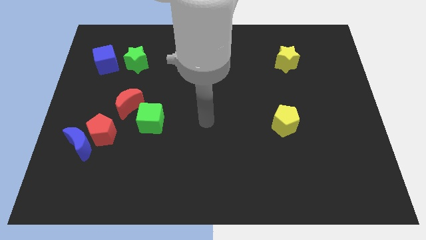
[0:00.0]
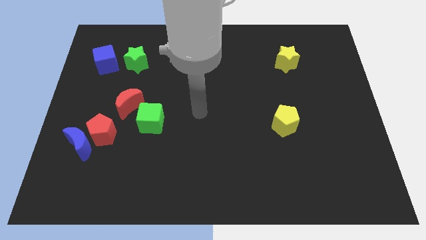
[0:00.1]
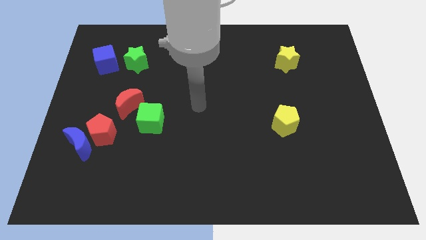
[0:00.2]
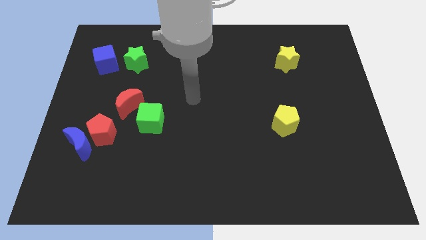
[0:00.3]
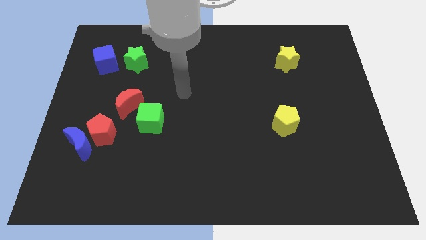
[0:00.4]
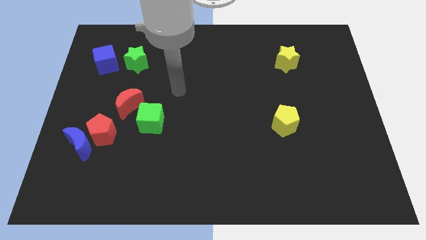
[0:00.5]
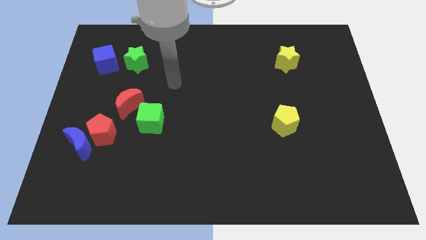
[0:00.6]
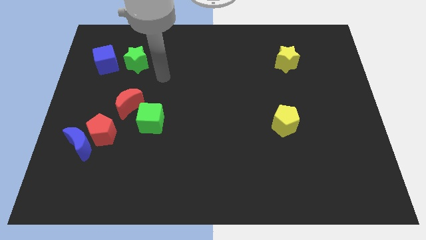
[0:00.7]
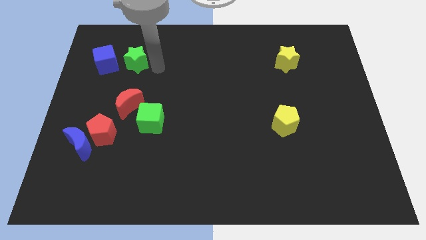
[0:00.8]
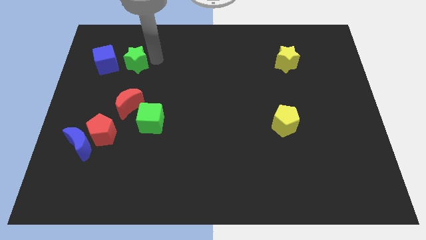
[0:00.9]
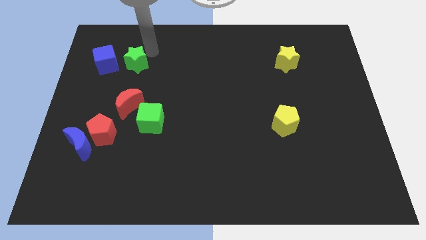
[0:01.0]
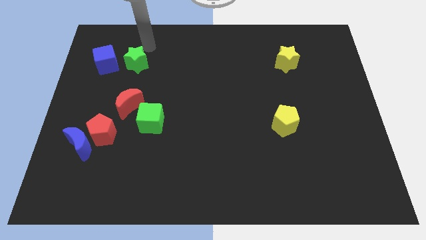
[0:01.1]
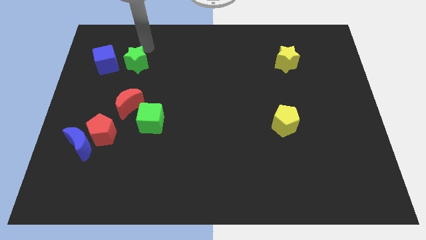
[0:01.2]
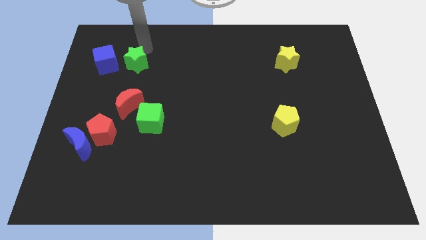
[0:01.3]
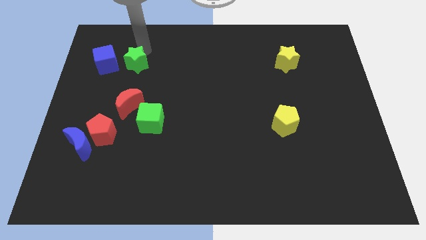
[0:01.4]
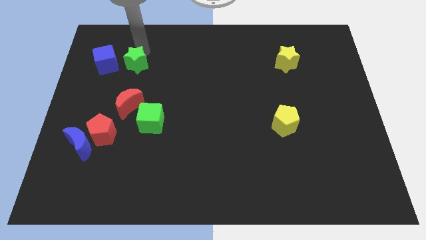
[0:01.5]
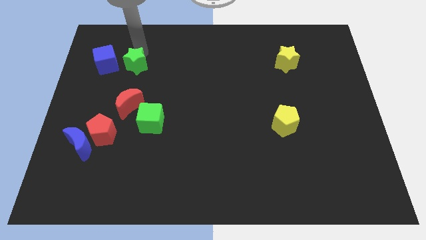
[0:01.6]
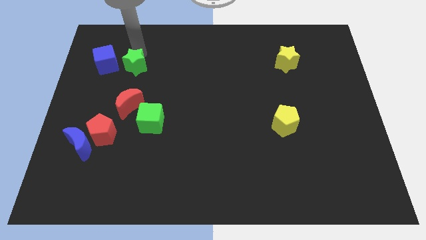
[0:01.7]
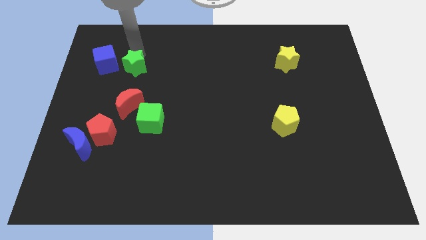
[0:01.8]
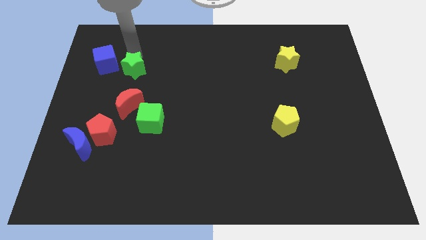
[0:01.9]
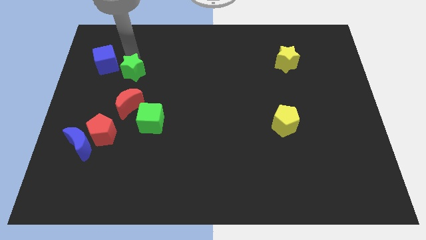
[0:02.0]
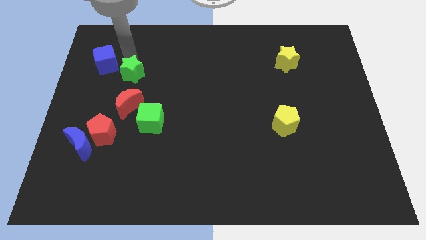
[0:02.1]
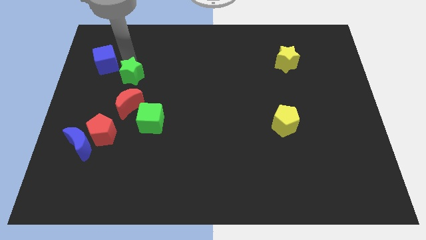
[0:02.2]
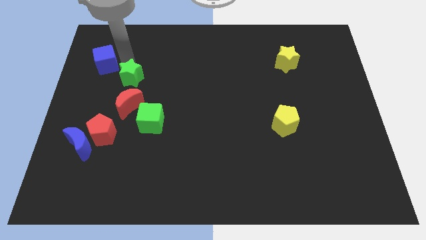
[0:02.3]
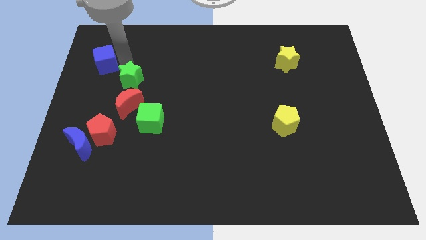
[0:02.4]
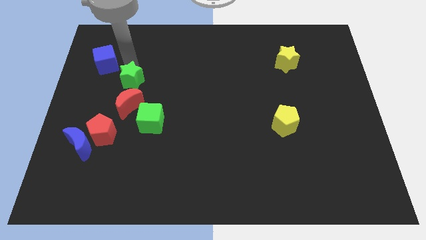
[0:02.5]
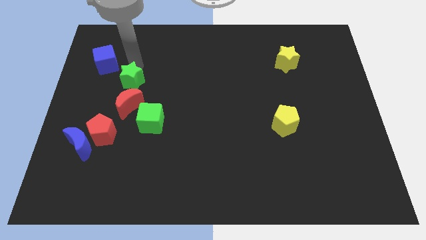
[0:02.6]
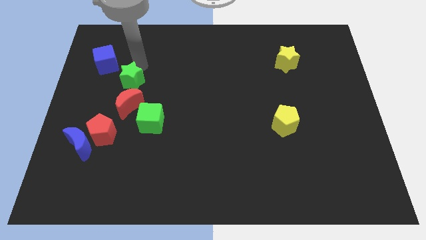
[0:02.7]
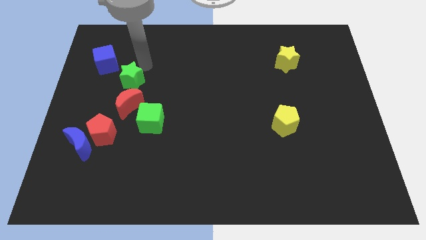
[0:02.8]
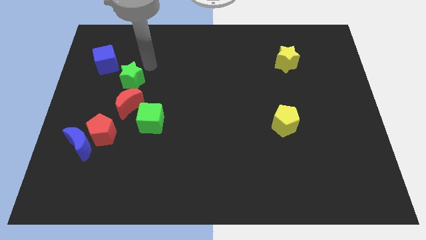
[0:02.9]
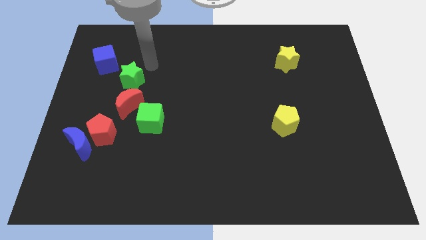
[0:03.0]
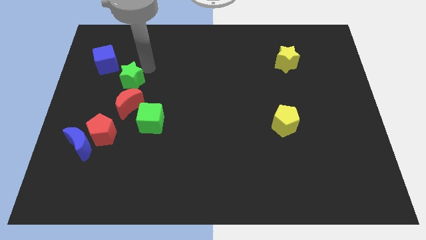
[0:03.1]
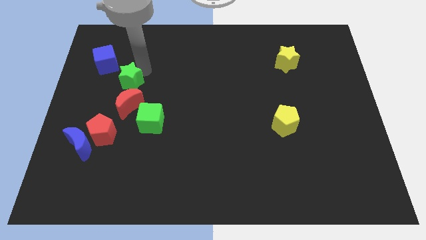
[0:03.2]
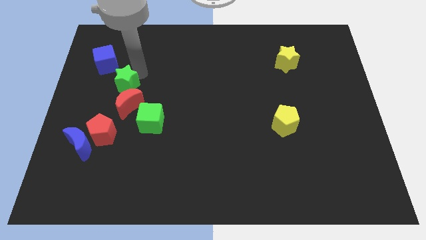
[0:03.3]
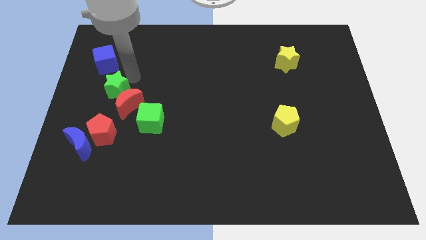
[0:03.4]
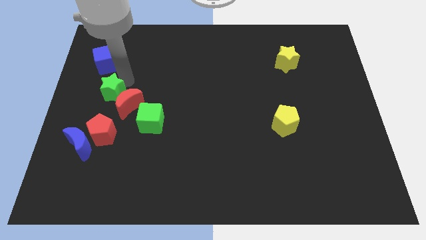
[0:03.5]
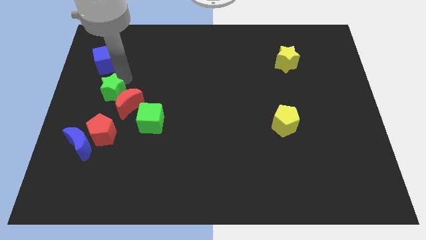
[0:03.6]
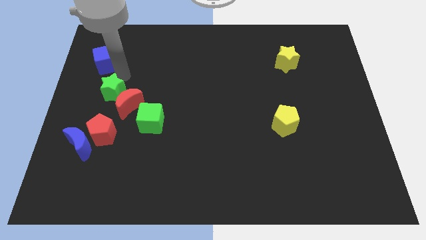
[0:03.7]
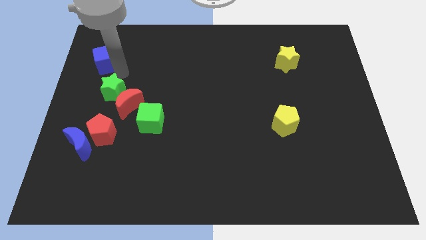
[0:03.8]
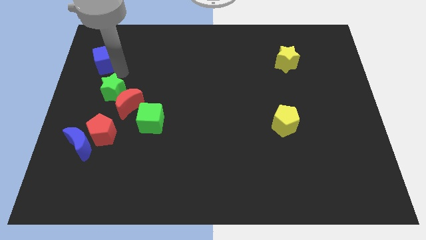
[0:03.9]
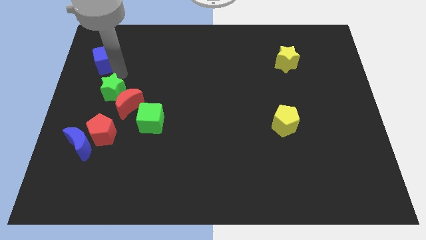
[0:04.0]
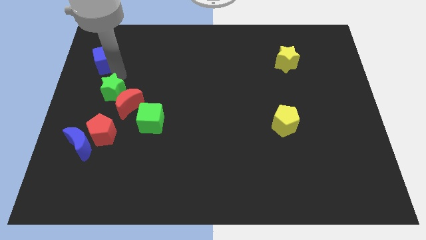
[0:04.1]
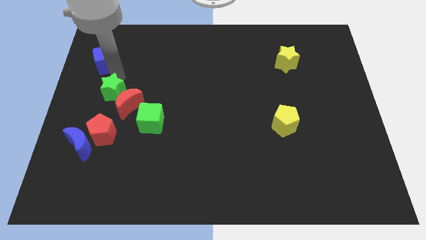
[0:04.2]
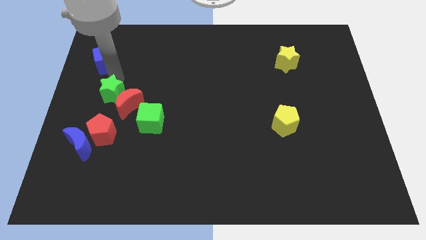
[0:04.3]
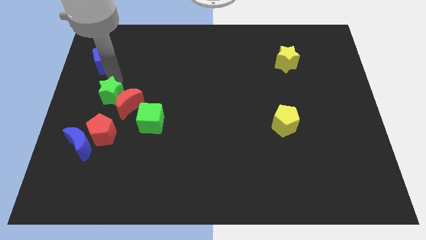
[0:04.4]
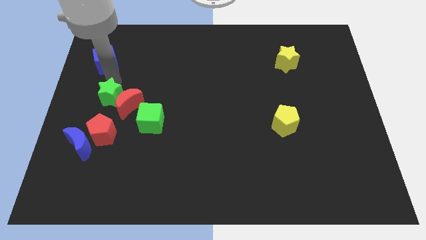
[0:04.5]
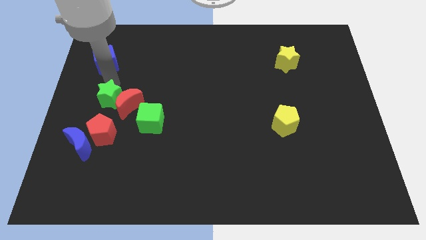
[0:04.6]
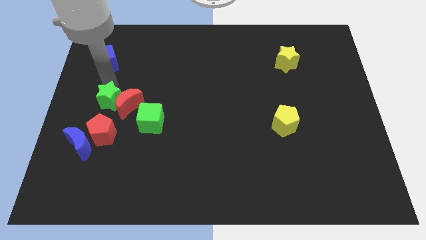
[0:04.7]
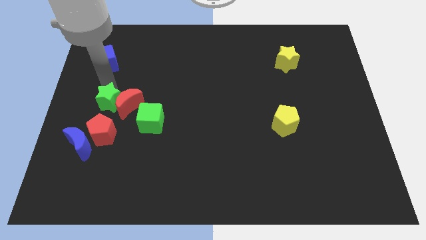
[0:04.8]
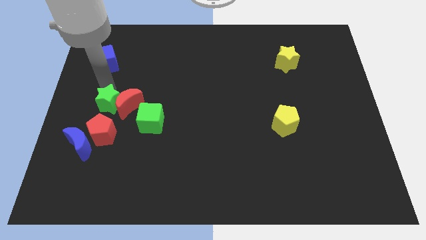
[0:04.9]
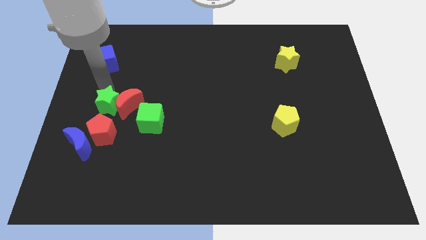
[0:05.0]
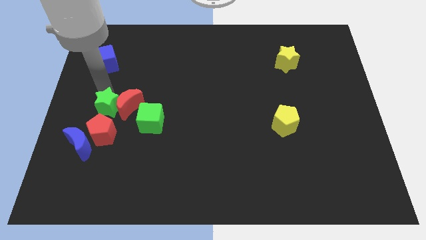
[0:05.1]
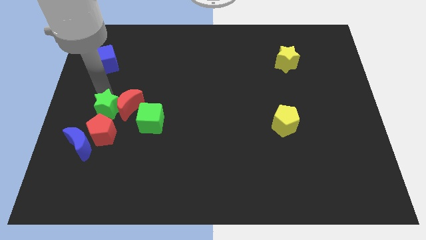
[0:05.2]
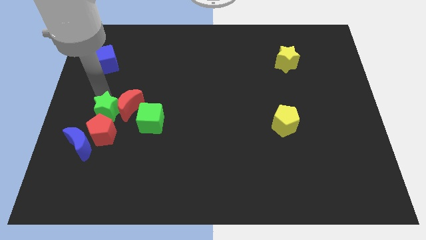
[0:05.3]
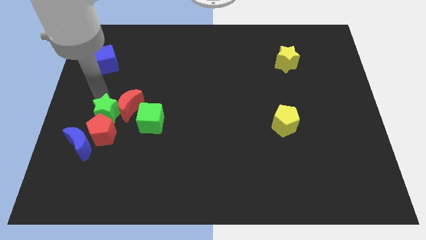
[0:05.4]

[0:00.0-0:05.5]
put the green star next to the red pentagon

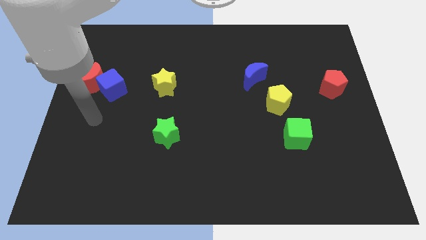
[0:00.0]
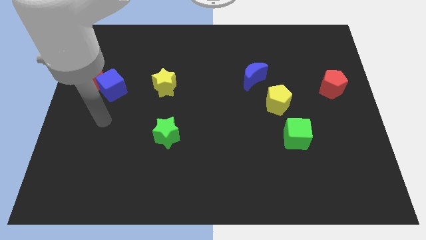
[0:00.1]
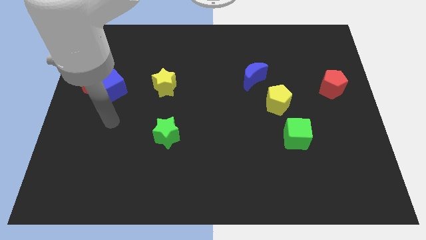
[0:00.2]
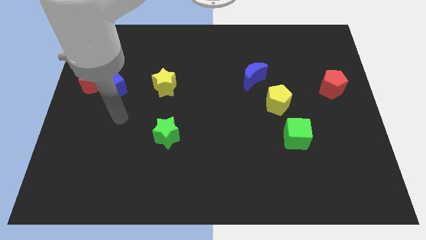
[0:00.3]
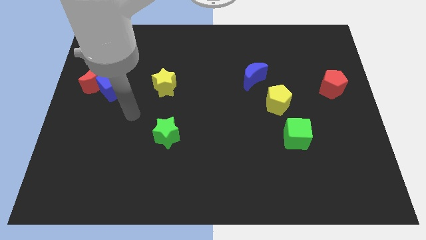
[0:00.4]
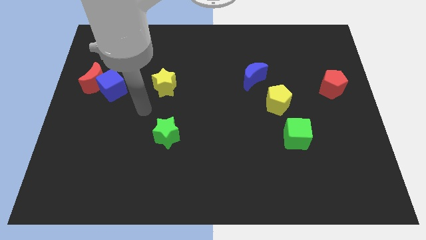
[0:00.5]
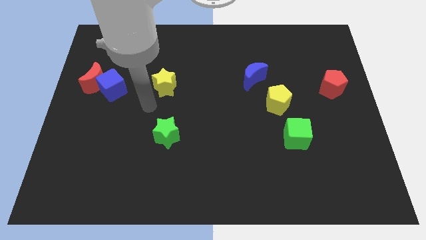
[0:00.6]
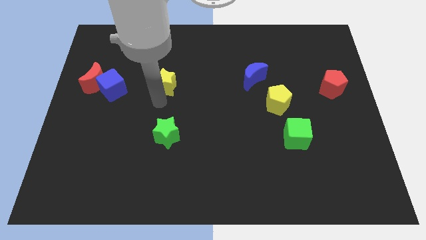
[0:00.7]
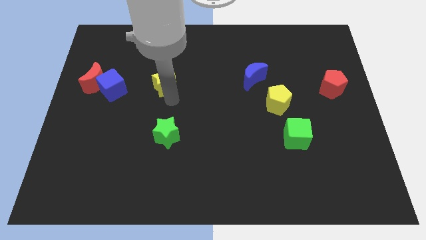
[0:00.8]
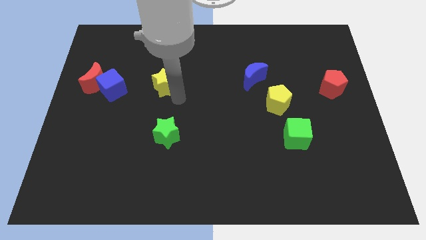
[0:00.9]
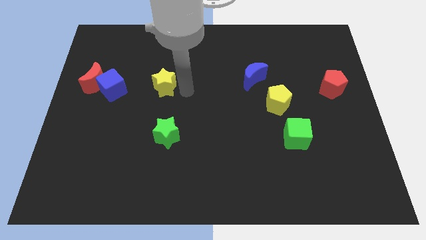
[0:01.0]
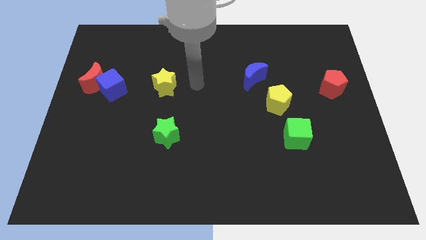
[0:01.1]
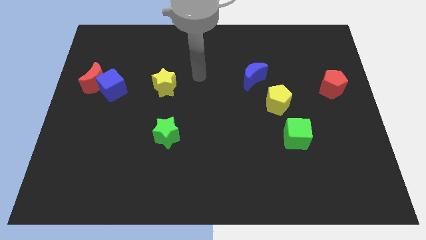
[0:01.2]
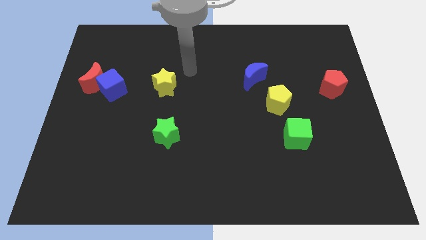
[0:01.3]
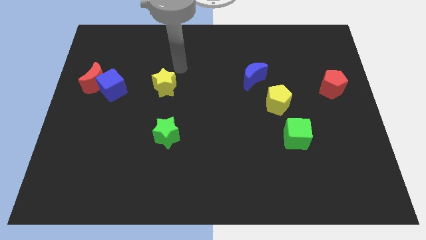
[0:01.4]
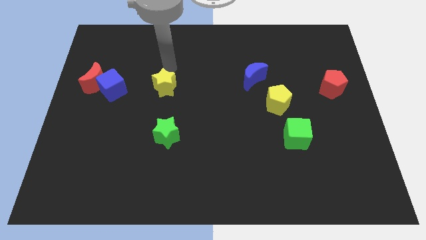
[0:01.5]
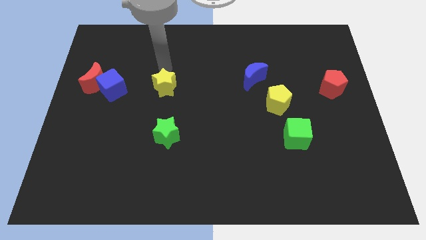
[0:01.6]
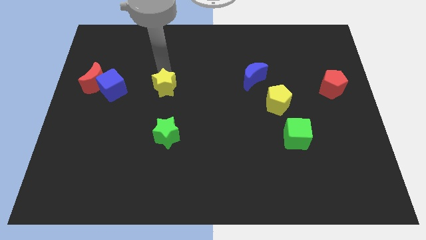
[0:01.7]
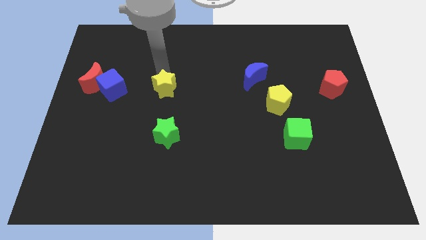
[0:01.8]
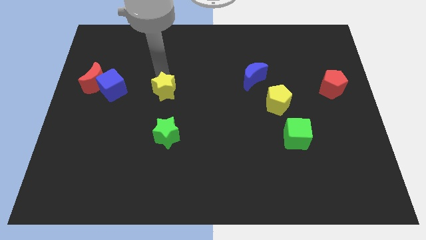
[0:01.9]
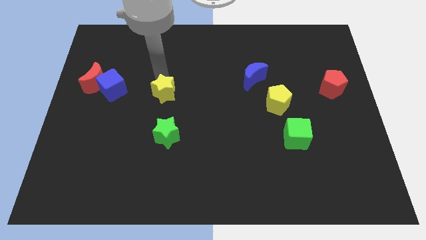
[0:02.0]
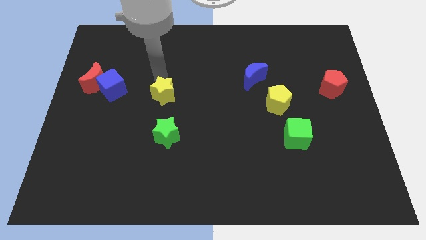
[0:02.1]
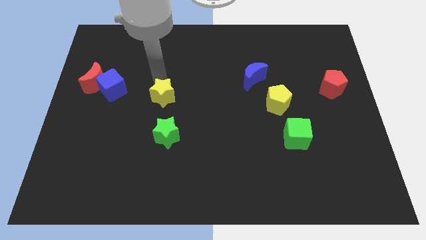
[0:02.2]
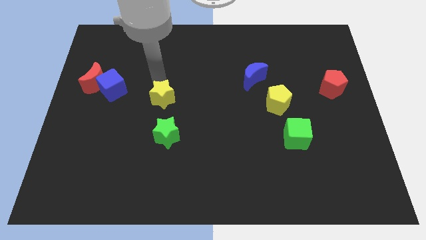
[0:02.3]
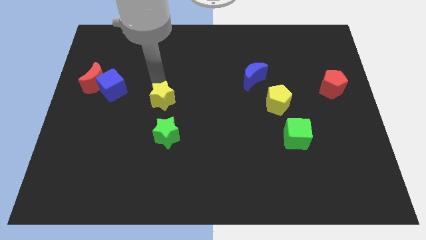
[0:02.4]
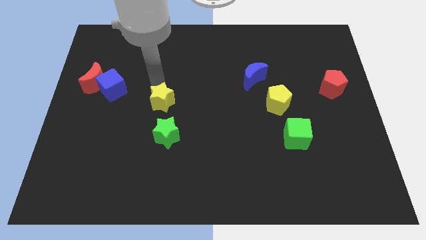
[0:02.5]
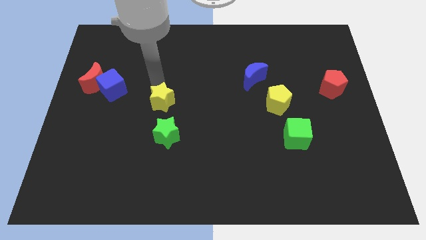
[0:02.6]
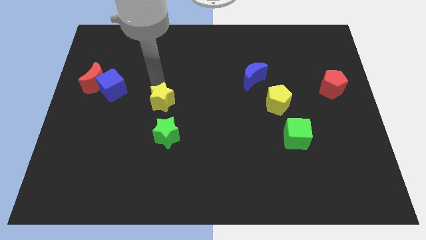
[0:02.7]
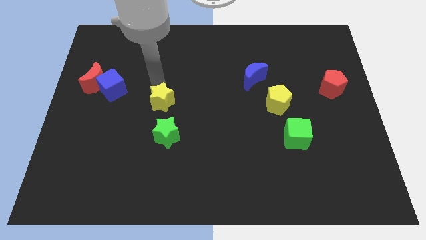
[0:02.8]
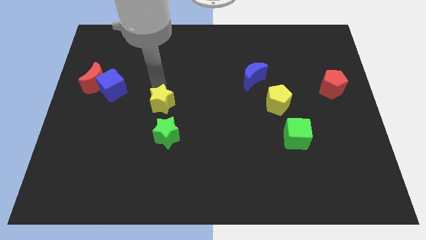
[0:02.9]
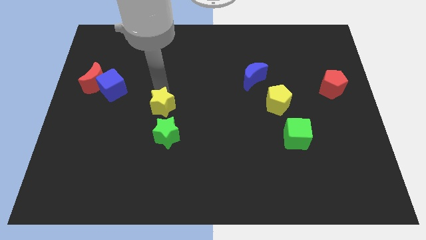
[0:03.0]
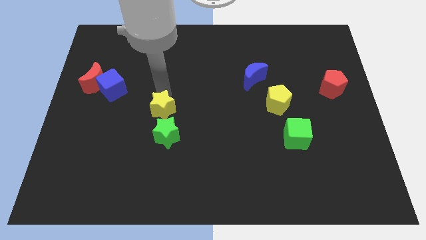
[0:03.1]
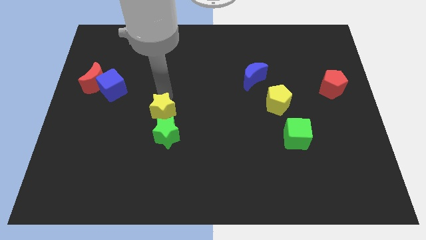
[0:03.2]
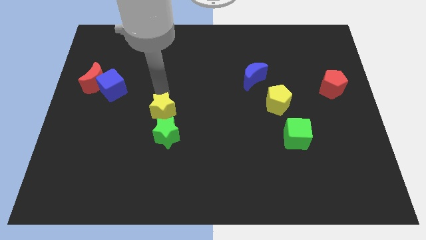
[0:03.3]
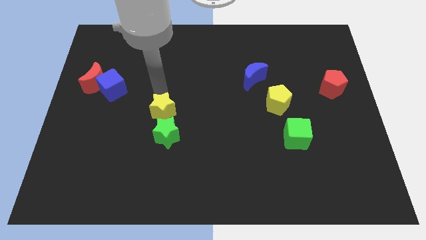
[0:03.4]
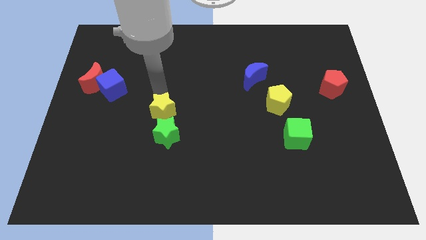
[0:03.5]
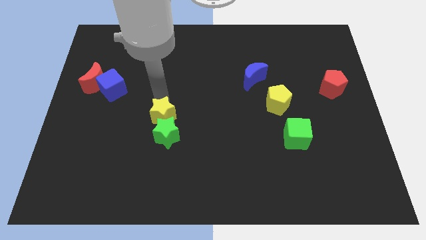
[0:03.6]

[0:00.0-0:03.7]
push the yellow star next to the green star
